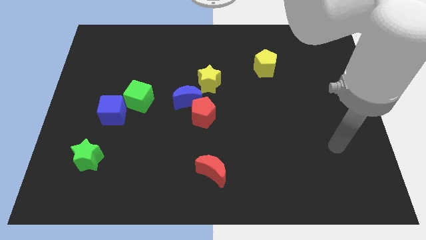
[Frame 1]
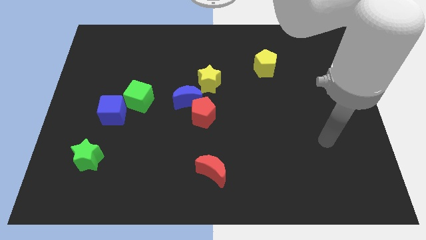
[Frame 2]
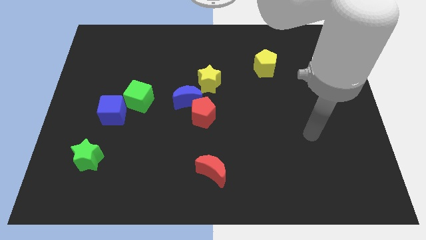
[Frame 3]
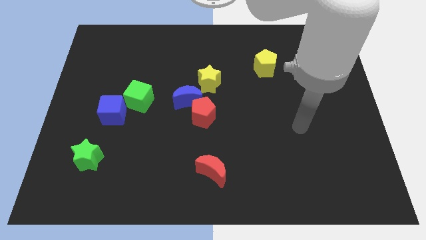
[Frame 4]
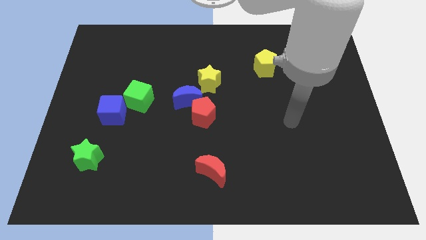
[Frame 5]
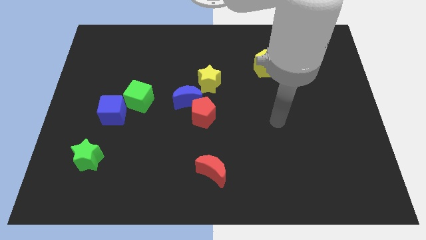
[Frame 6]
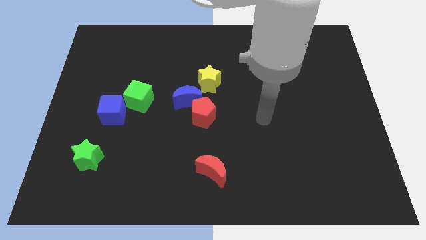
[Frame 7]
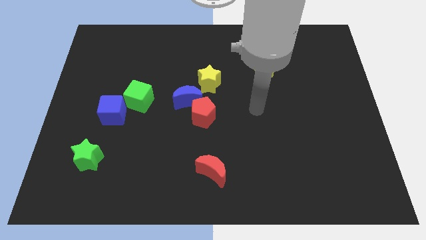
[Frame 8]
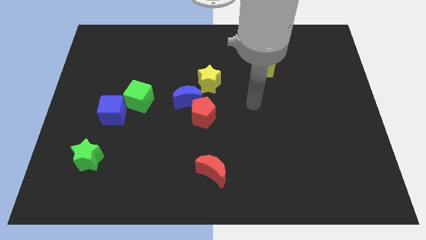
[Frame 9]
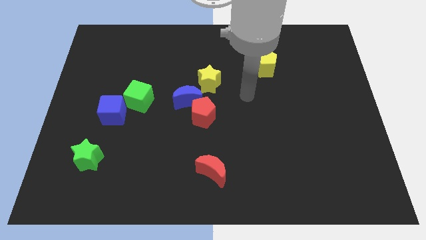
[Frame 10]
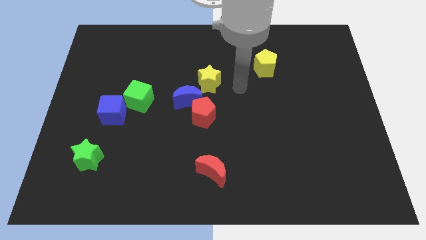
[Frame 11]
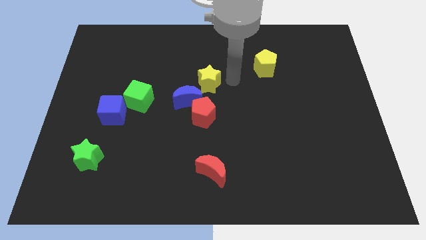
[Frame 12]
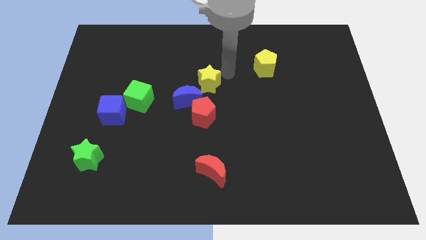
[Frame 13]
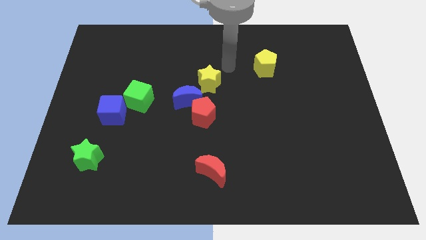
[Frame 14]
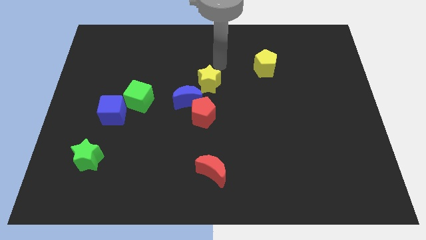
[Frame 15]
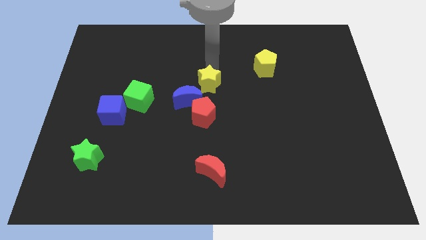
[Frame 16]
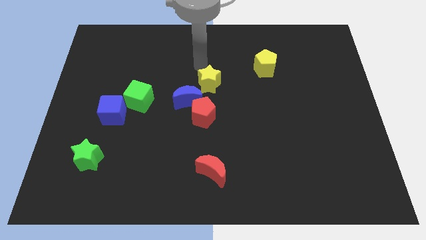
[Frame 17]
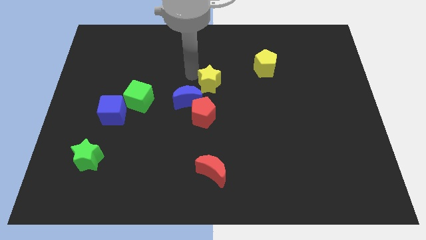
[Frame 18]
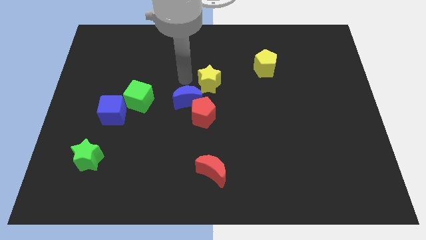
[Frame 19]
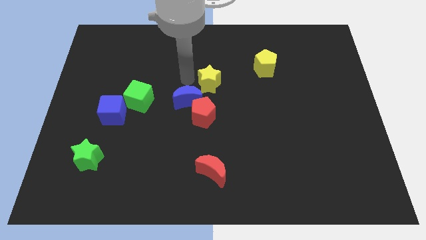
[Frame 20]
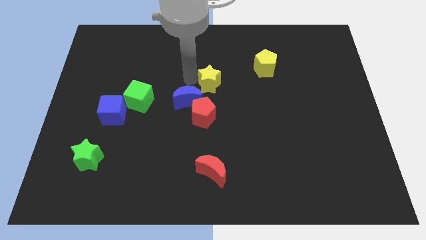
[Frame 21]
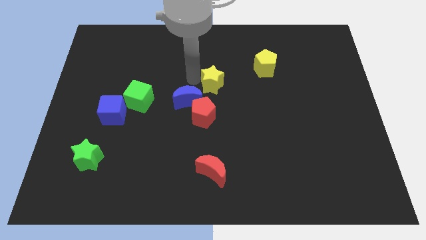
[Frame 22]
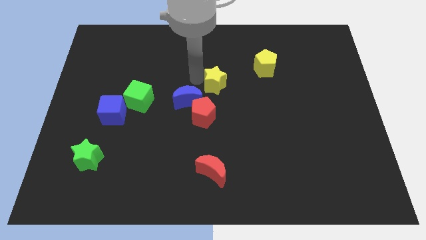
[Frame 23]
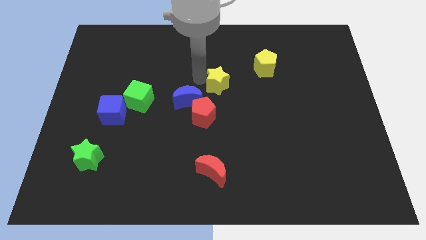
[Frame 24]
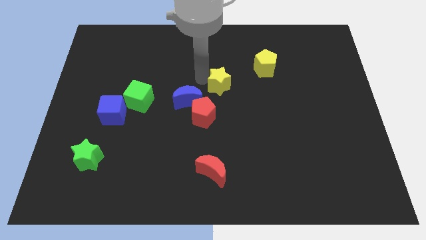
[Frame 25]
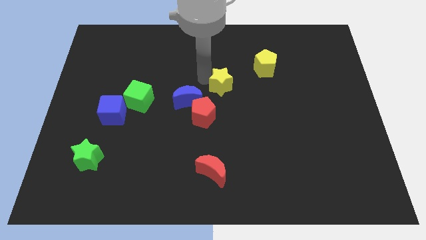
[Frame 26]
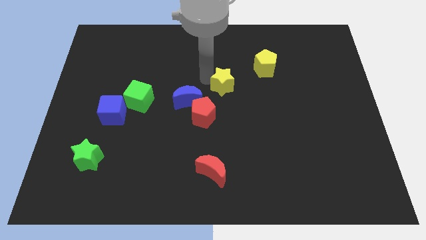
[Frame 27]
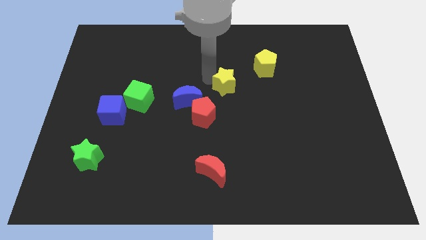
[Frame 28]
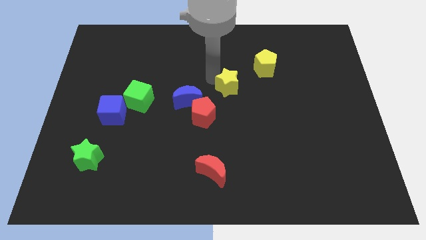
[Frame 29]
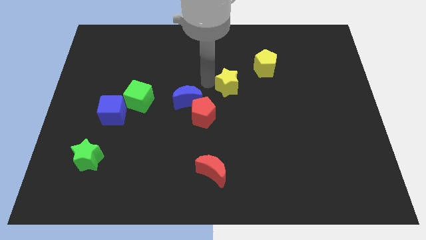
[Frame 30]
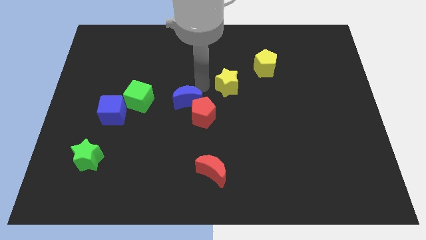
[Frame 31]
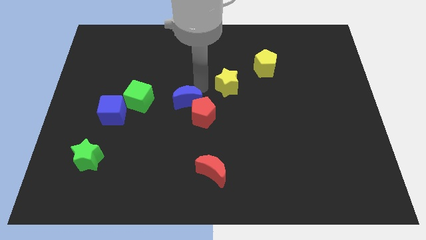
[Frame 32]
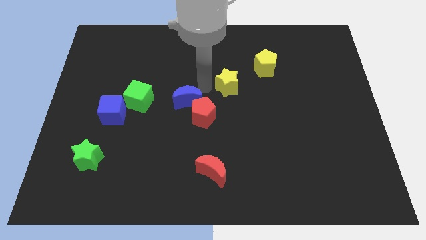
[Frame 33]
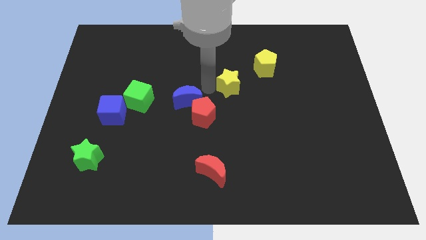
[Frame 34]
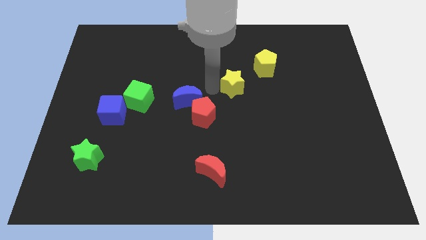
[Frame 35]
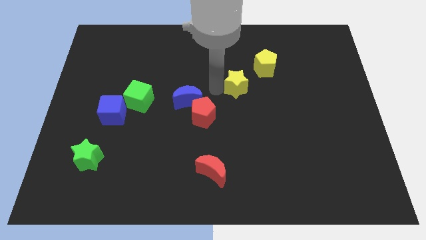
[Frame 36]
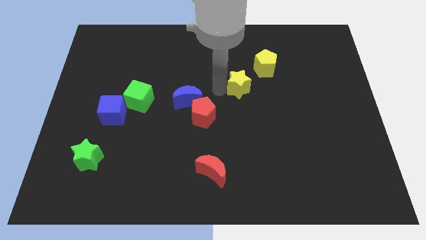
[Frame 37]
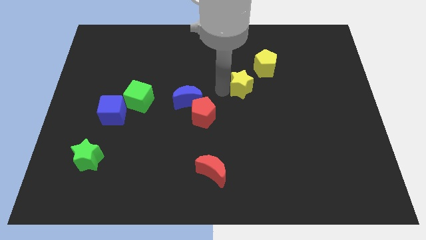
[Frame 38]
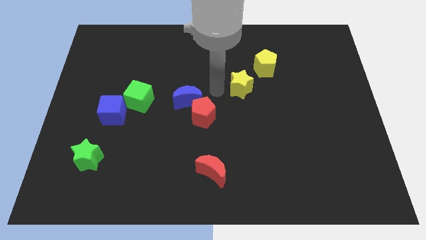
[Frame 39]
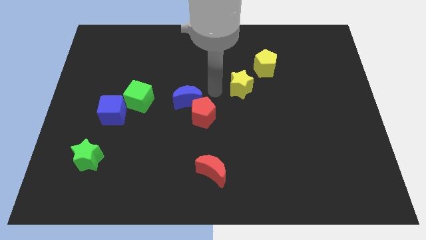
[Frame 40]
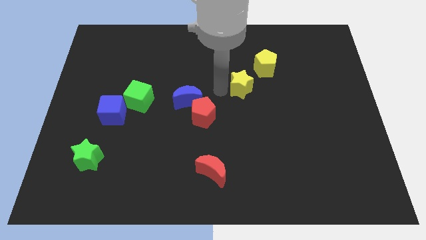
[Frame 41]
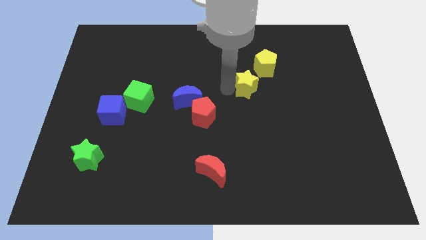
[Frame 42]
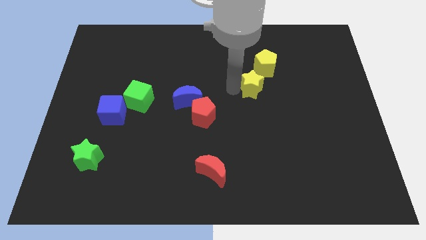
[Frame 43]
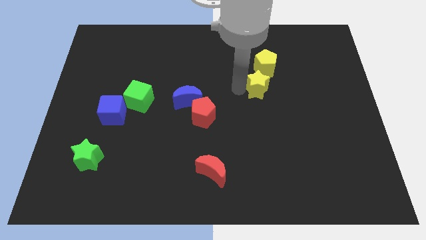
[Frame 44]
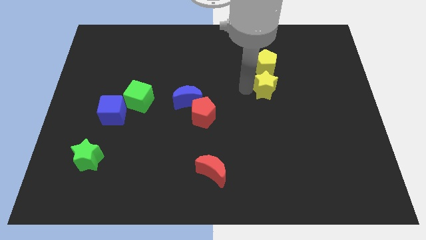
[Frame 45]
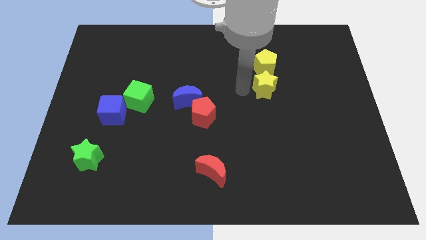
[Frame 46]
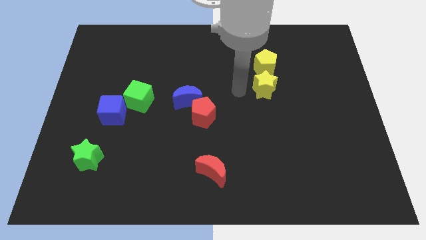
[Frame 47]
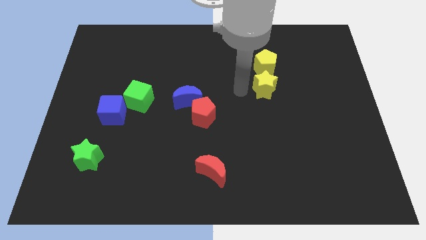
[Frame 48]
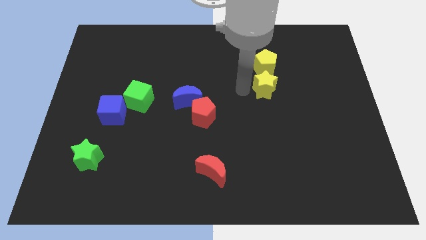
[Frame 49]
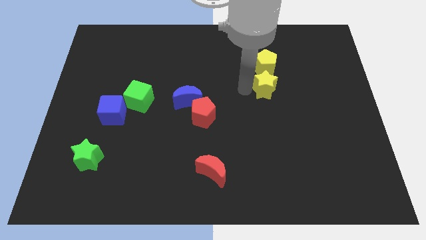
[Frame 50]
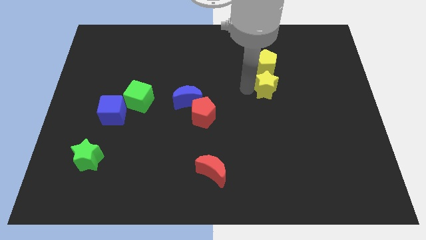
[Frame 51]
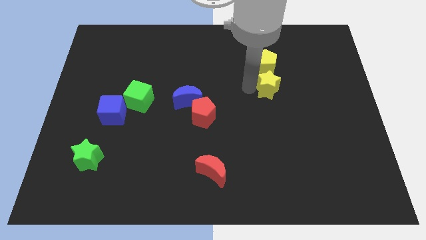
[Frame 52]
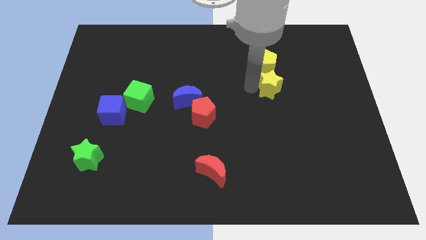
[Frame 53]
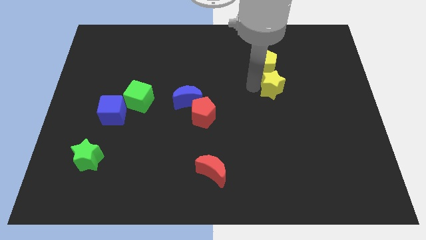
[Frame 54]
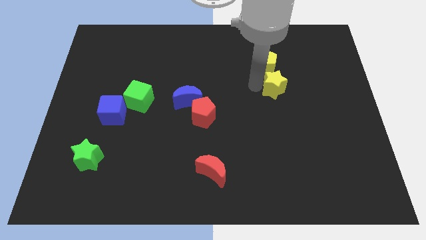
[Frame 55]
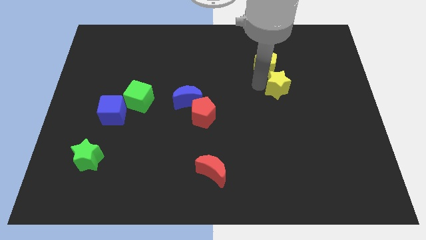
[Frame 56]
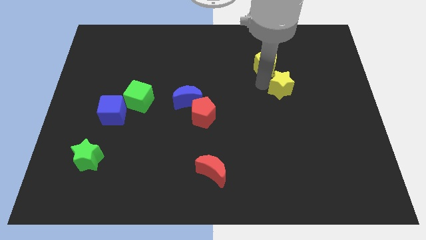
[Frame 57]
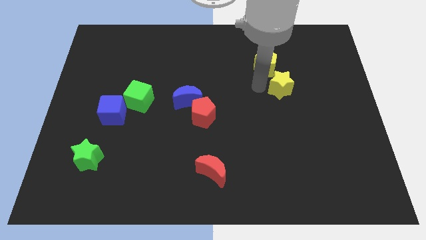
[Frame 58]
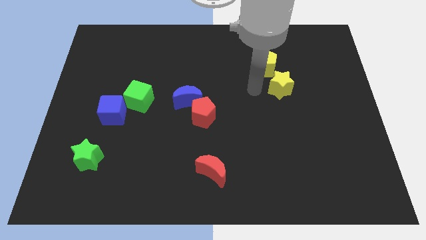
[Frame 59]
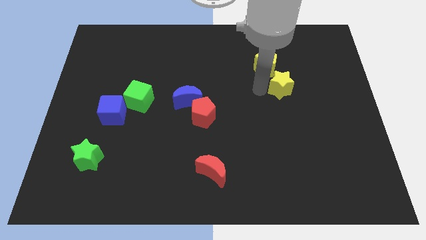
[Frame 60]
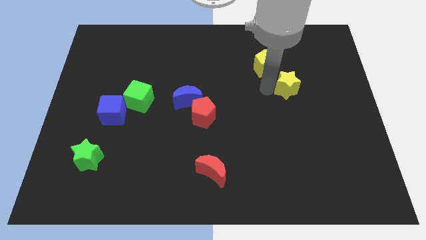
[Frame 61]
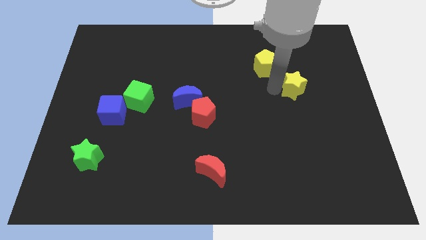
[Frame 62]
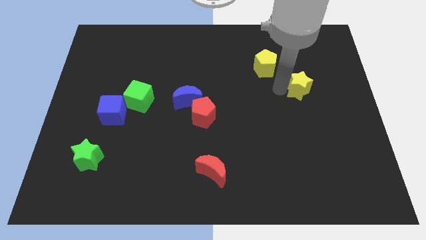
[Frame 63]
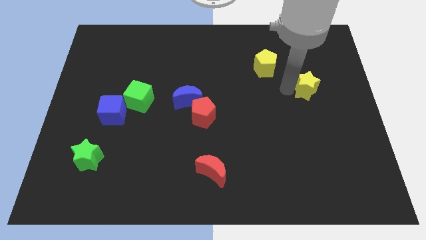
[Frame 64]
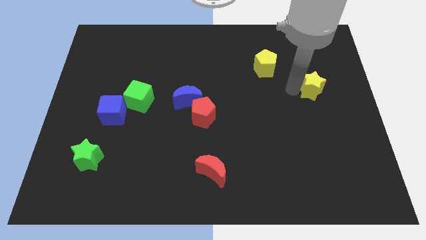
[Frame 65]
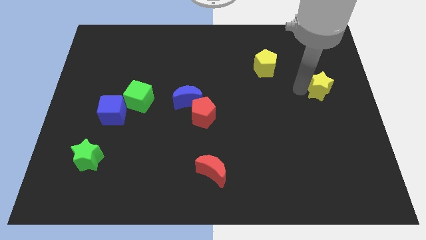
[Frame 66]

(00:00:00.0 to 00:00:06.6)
slide the yellow star to the center right
